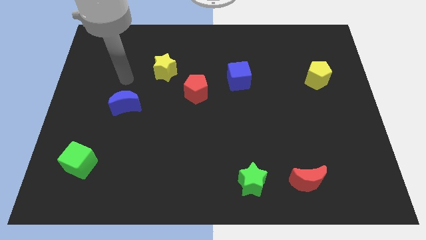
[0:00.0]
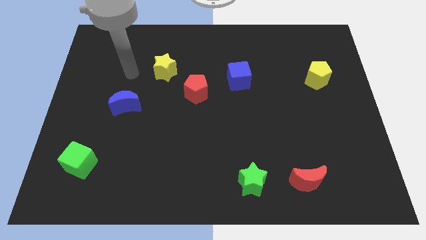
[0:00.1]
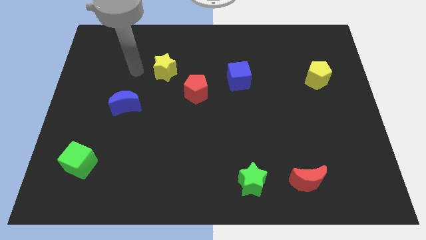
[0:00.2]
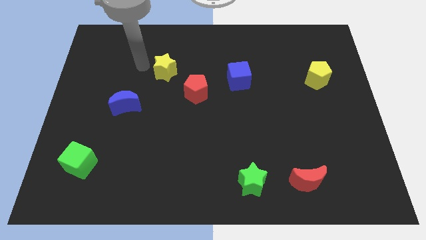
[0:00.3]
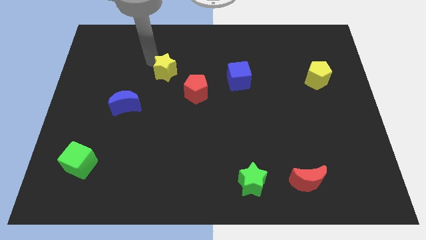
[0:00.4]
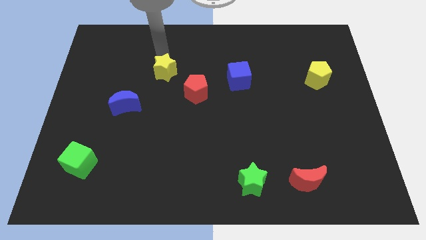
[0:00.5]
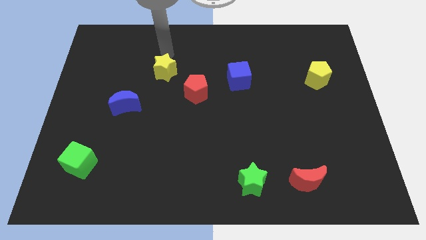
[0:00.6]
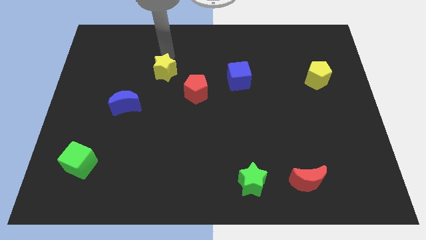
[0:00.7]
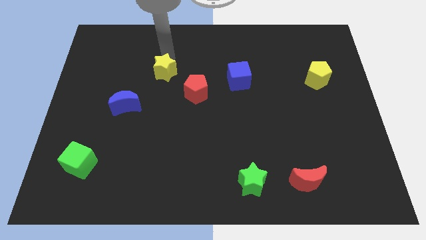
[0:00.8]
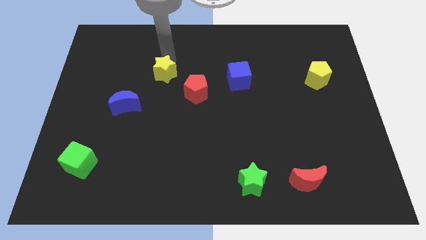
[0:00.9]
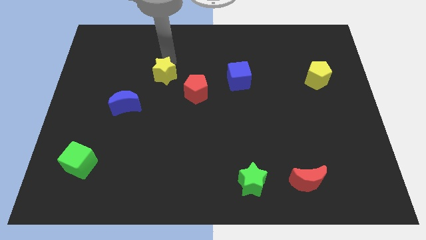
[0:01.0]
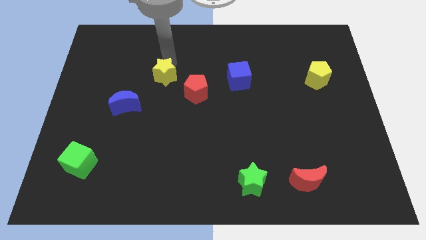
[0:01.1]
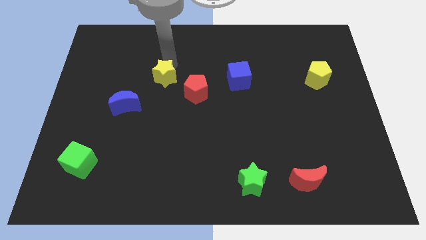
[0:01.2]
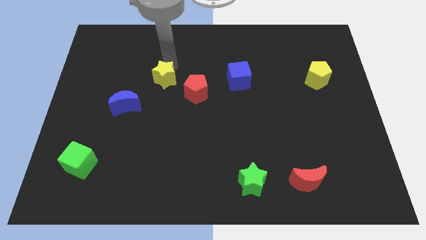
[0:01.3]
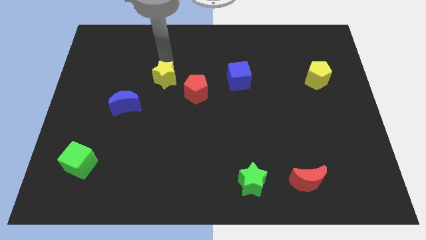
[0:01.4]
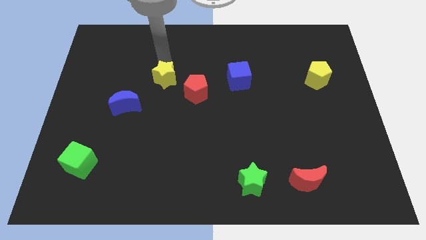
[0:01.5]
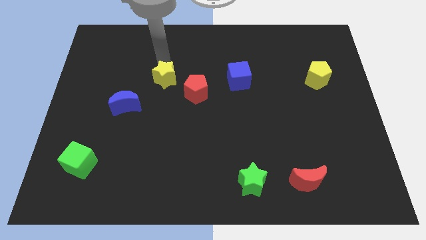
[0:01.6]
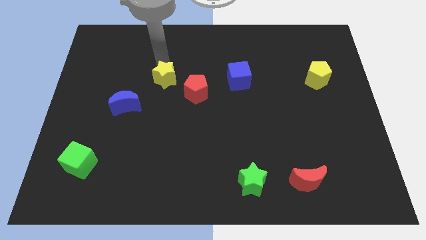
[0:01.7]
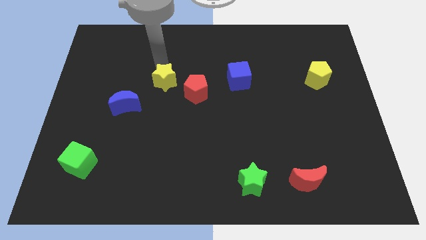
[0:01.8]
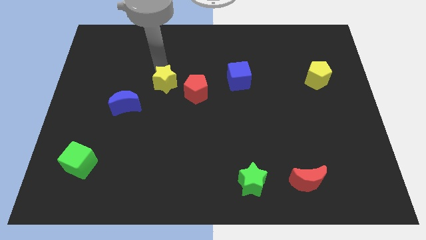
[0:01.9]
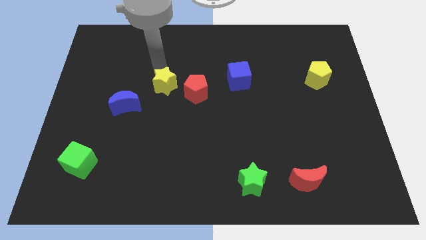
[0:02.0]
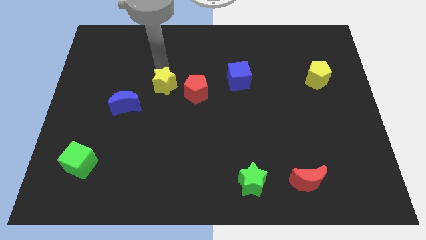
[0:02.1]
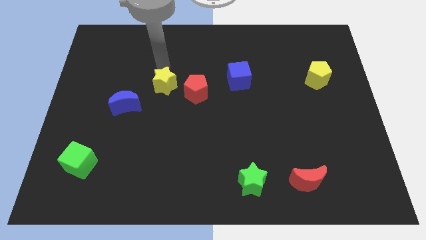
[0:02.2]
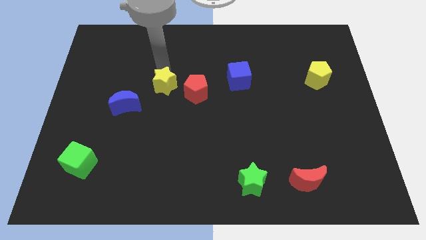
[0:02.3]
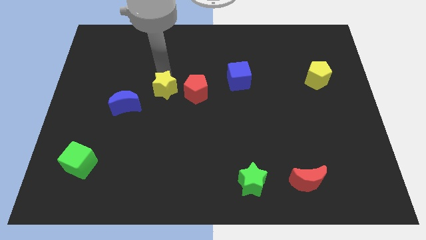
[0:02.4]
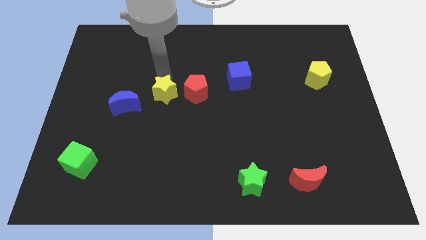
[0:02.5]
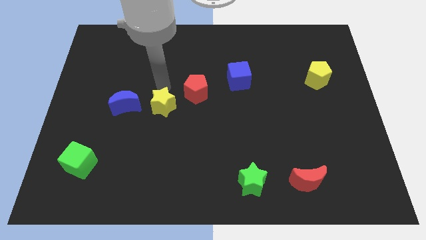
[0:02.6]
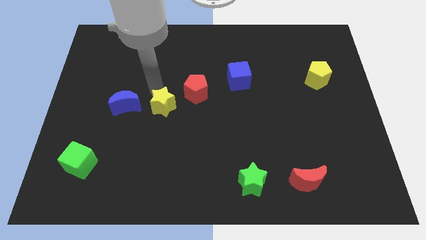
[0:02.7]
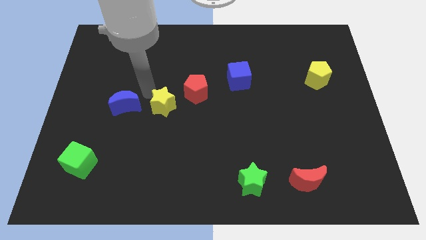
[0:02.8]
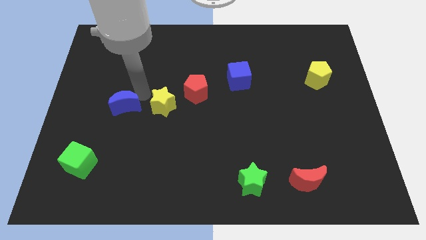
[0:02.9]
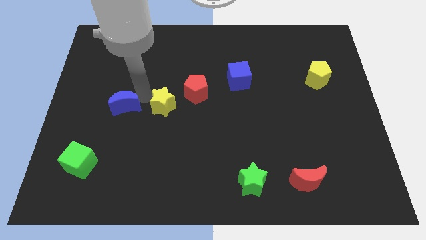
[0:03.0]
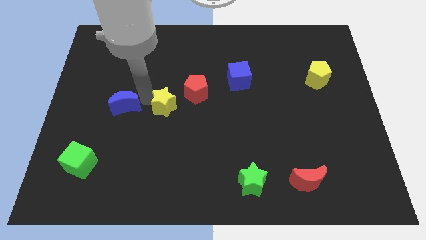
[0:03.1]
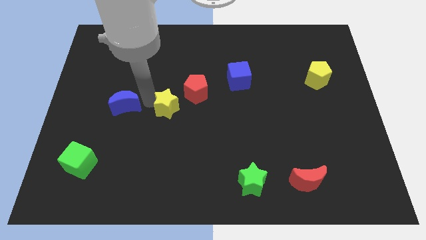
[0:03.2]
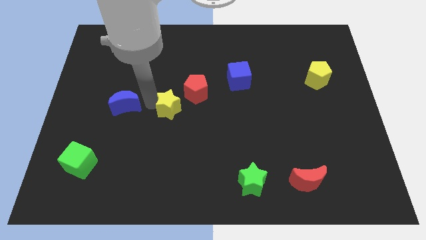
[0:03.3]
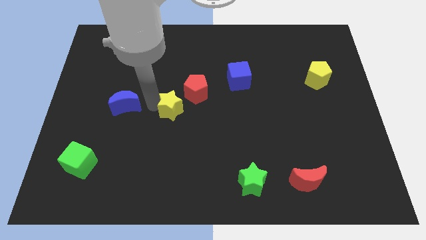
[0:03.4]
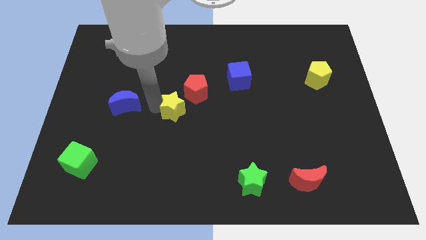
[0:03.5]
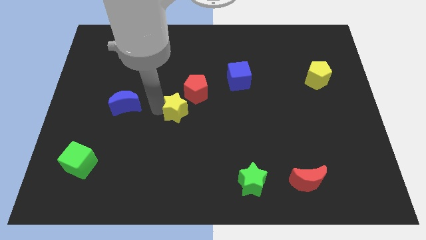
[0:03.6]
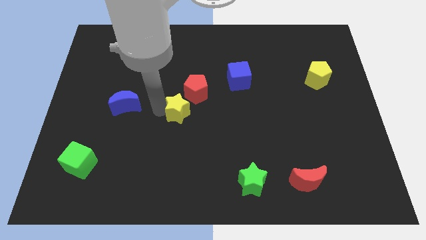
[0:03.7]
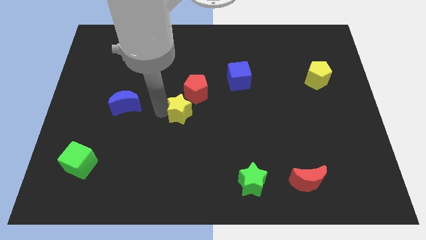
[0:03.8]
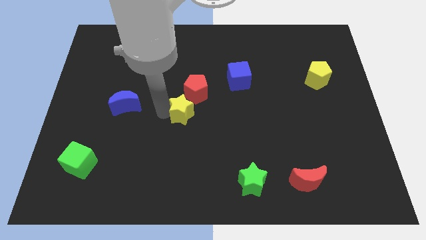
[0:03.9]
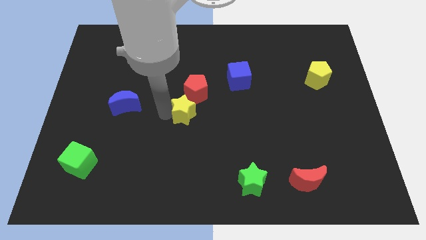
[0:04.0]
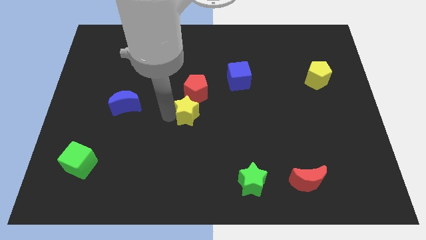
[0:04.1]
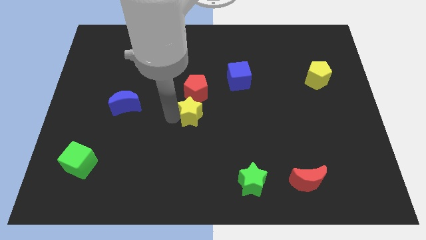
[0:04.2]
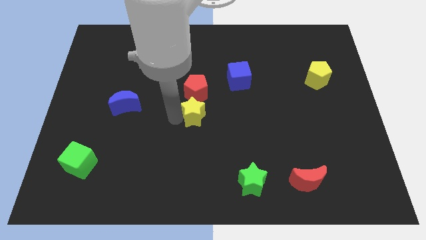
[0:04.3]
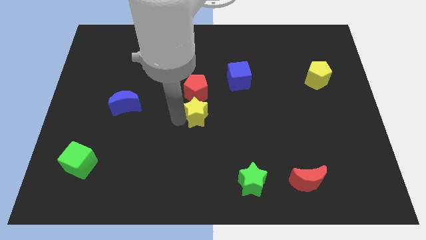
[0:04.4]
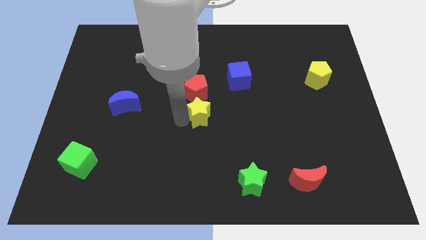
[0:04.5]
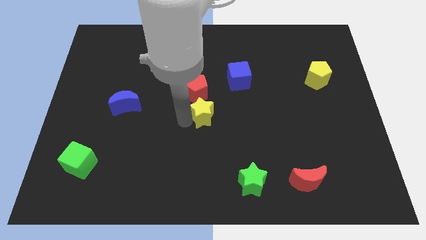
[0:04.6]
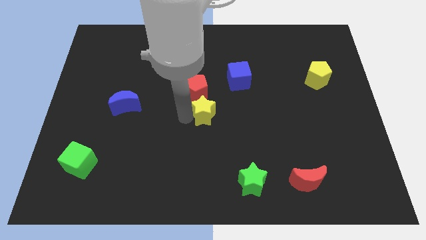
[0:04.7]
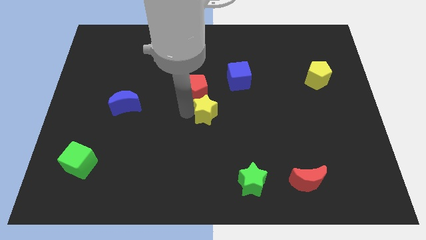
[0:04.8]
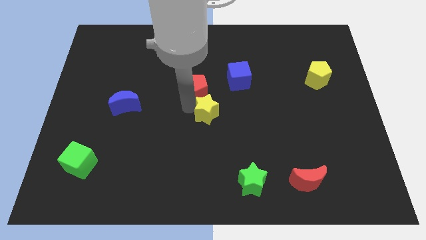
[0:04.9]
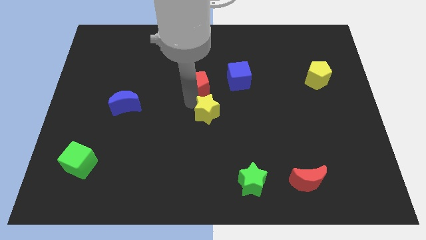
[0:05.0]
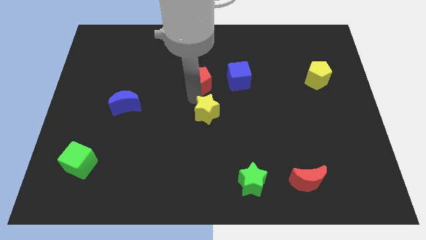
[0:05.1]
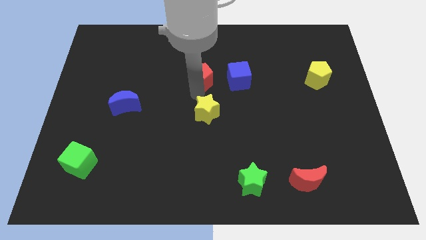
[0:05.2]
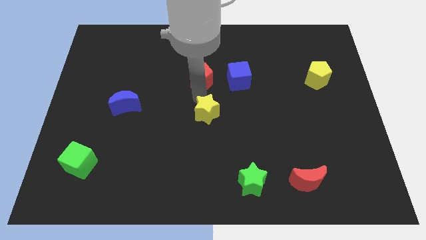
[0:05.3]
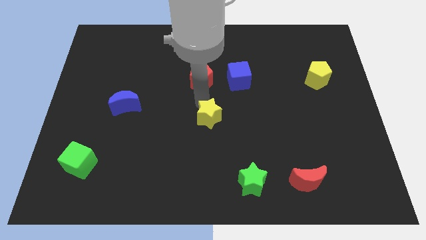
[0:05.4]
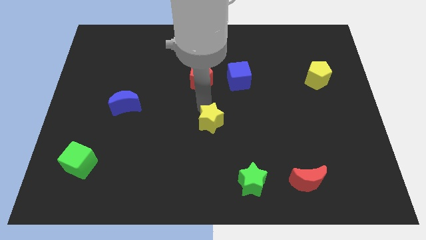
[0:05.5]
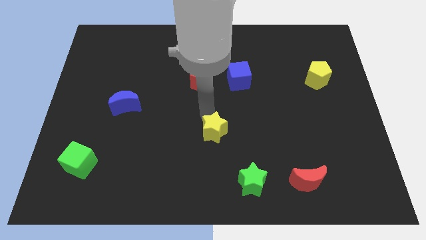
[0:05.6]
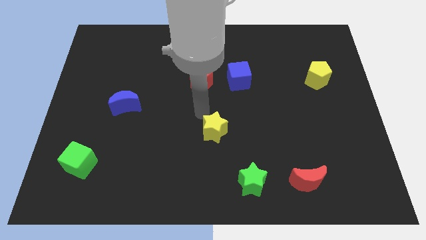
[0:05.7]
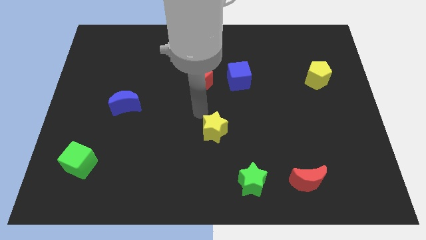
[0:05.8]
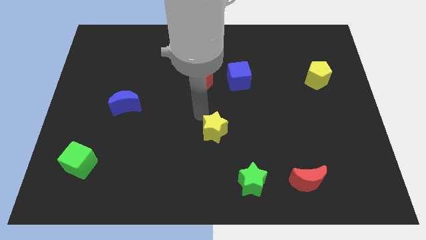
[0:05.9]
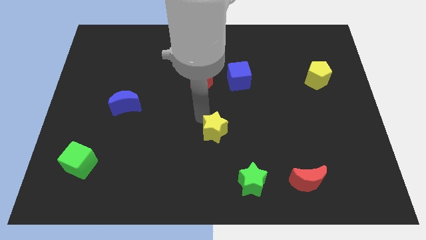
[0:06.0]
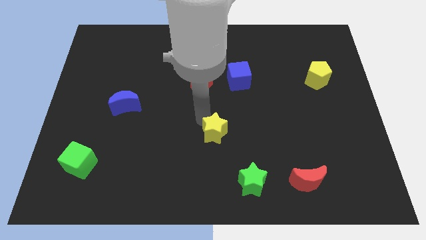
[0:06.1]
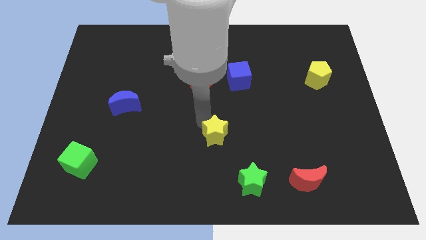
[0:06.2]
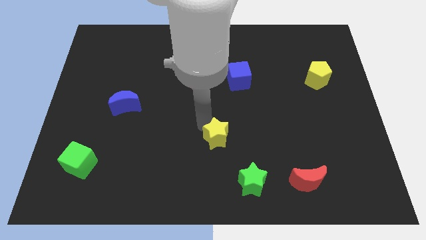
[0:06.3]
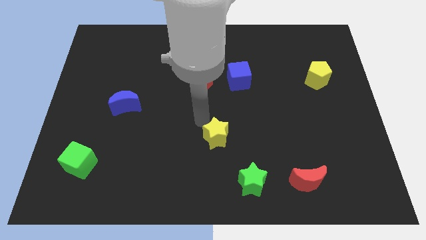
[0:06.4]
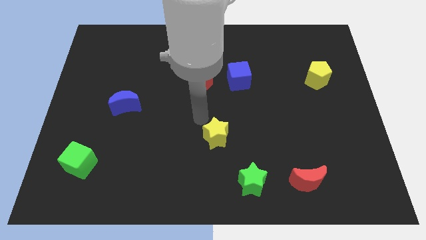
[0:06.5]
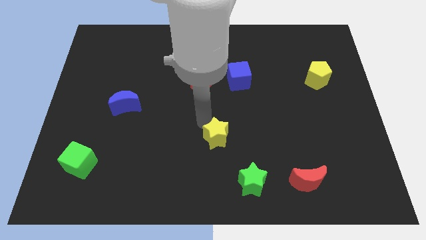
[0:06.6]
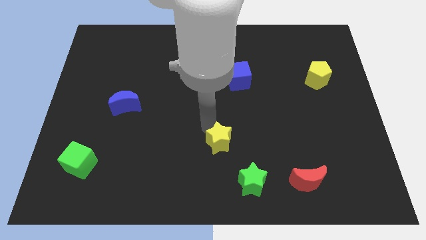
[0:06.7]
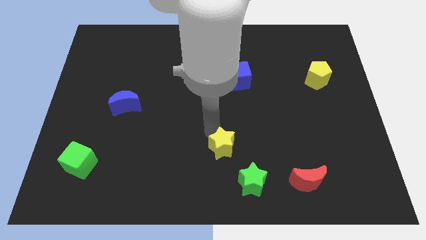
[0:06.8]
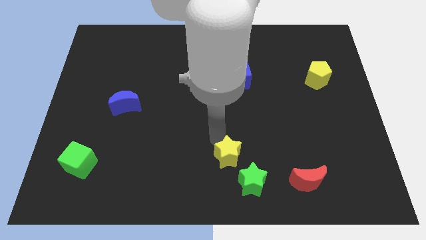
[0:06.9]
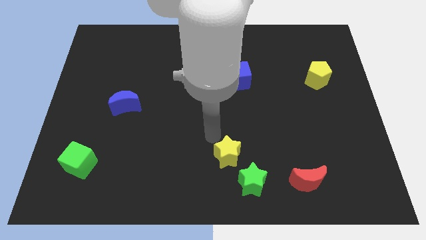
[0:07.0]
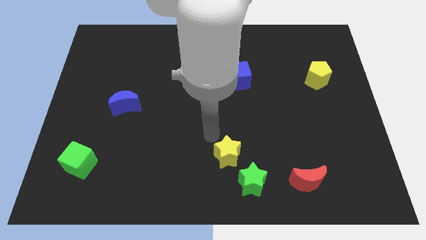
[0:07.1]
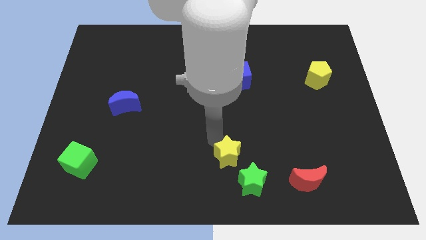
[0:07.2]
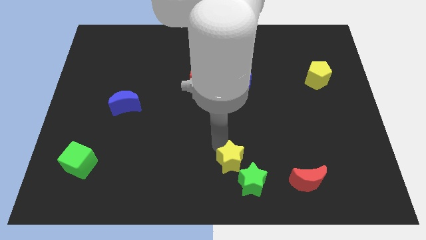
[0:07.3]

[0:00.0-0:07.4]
slide the yellow star towards the green star
